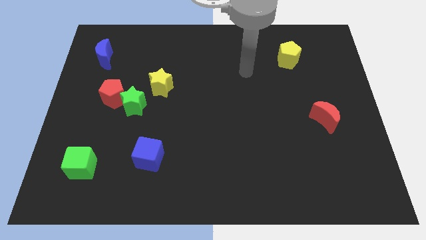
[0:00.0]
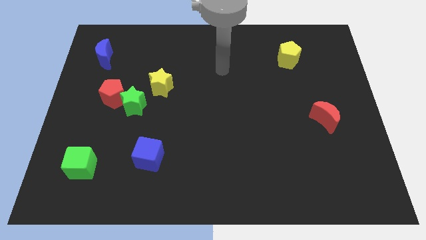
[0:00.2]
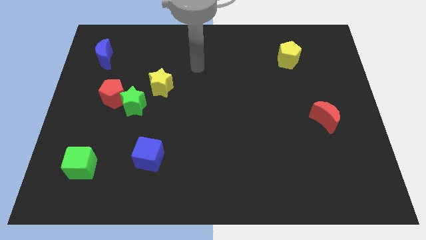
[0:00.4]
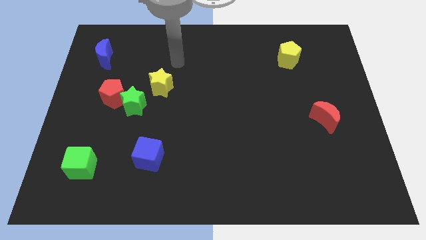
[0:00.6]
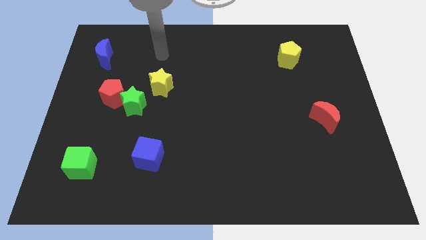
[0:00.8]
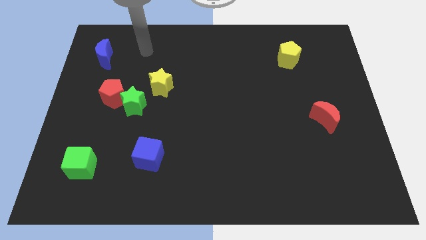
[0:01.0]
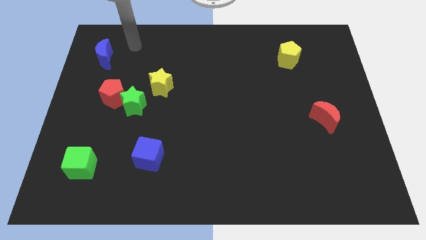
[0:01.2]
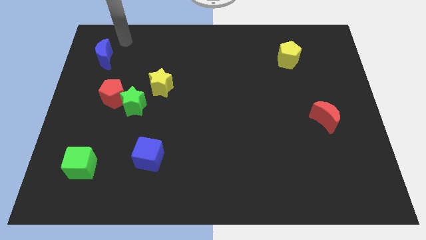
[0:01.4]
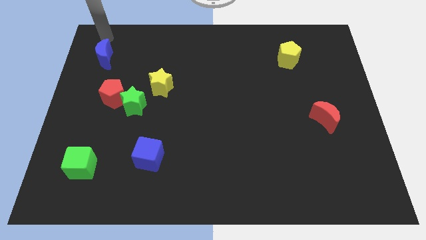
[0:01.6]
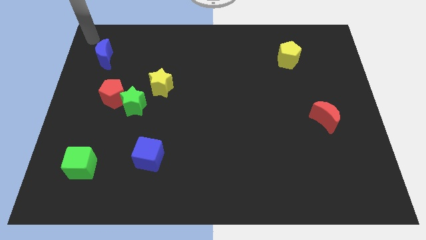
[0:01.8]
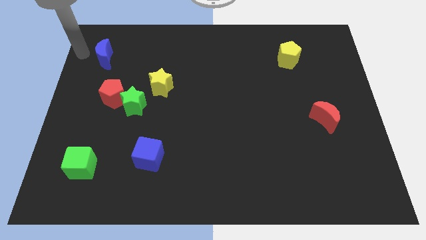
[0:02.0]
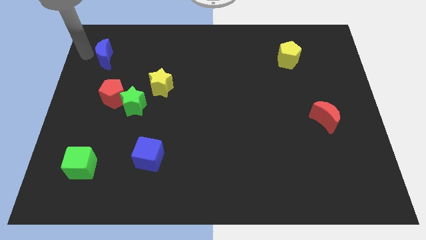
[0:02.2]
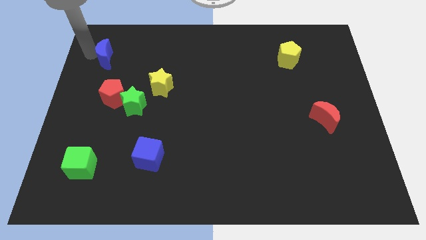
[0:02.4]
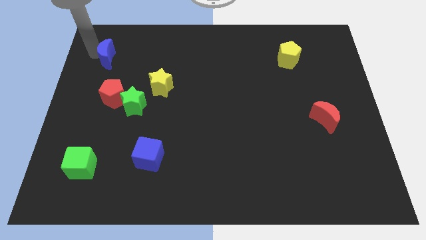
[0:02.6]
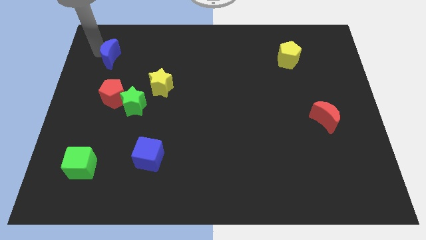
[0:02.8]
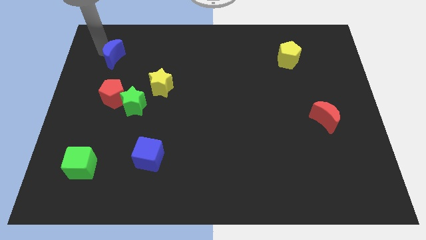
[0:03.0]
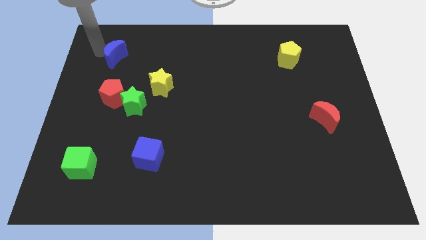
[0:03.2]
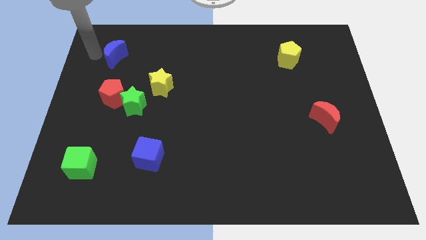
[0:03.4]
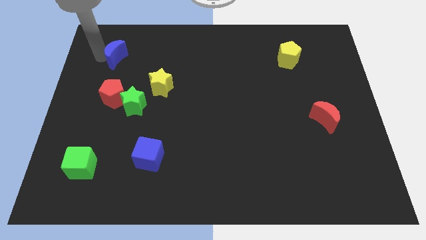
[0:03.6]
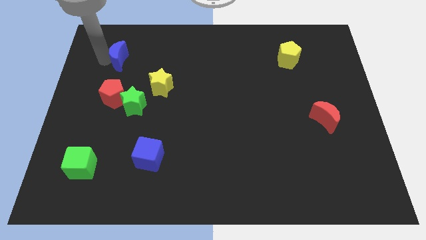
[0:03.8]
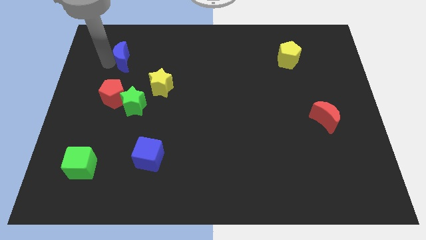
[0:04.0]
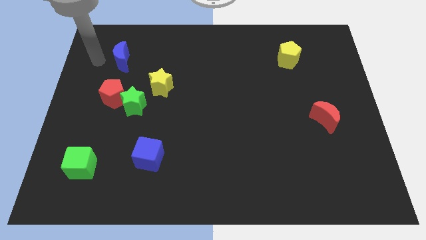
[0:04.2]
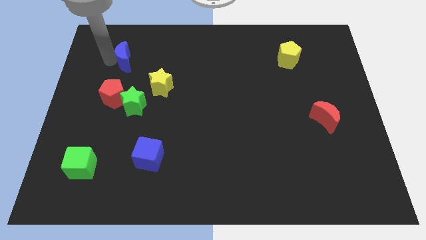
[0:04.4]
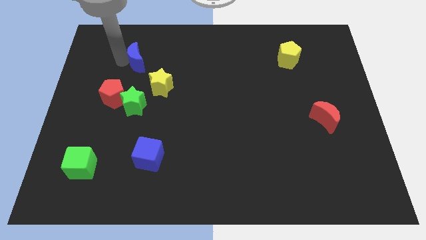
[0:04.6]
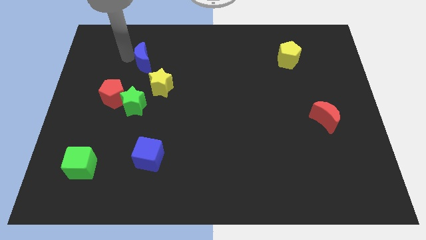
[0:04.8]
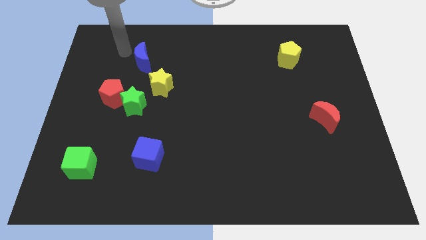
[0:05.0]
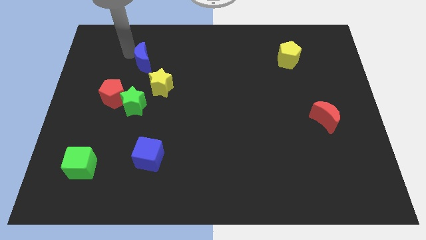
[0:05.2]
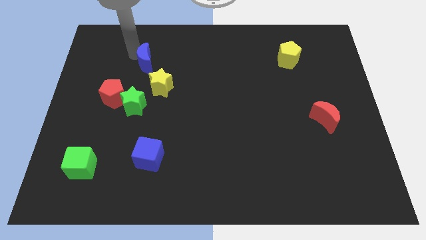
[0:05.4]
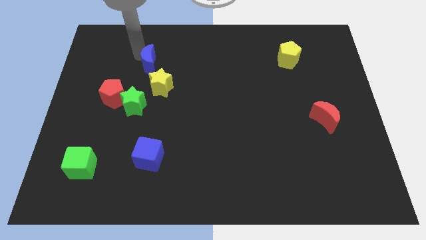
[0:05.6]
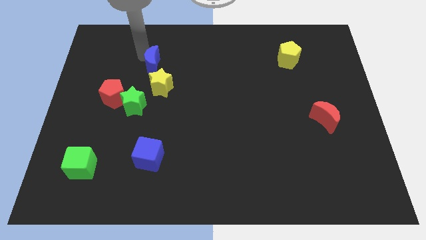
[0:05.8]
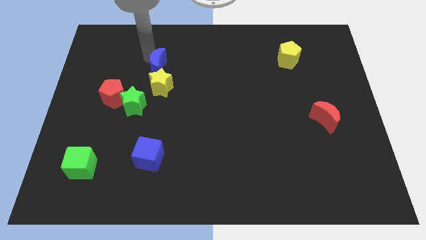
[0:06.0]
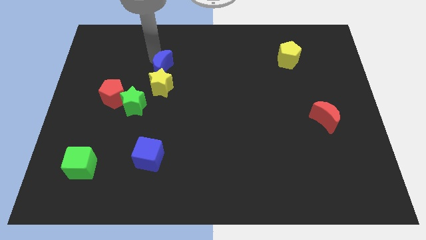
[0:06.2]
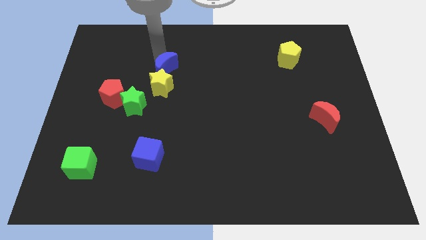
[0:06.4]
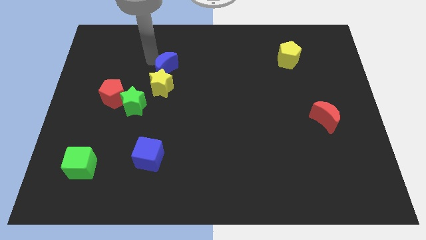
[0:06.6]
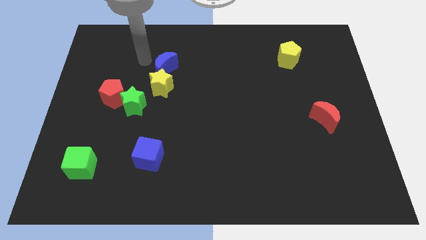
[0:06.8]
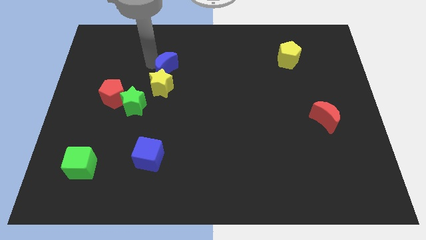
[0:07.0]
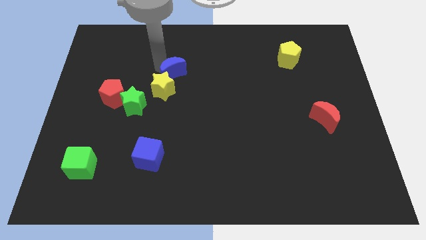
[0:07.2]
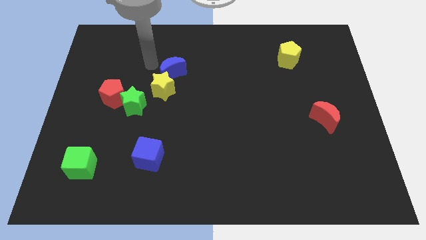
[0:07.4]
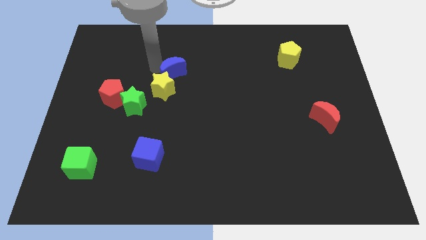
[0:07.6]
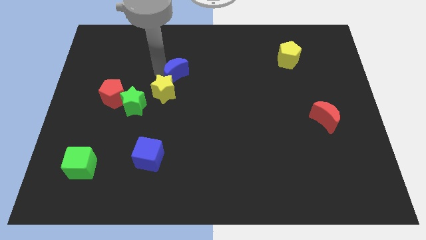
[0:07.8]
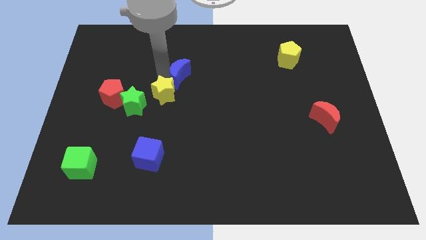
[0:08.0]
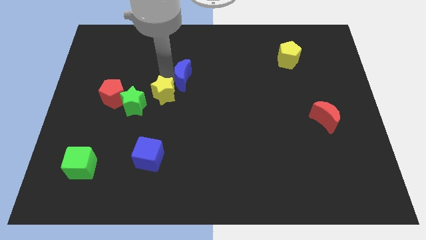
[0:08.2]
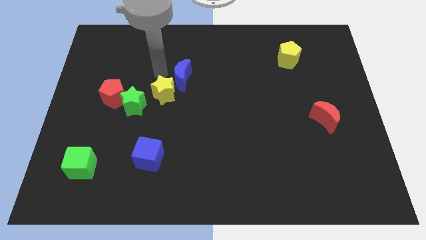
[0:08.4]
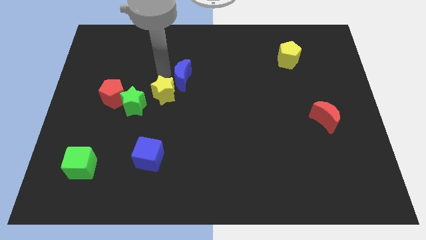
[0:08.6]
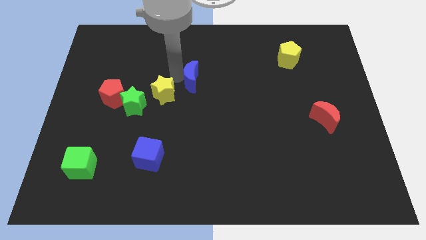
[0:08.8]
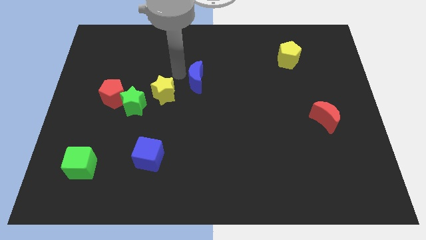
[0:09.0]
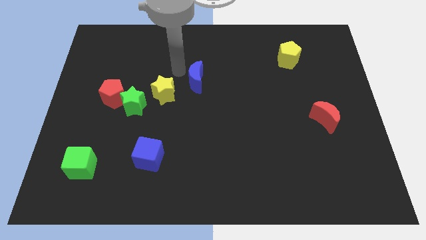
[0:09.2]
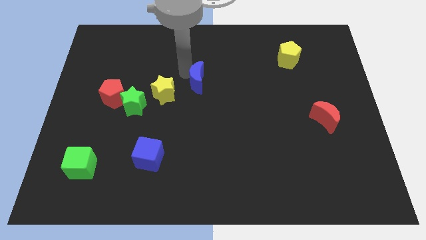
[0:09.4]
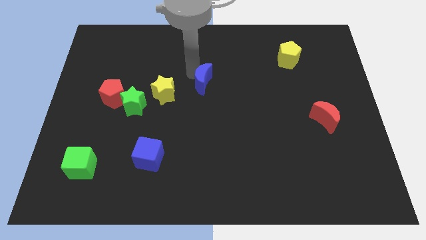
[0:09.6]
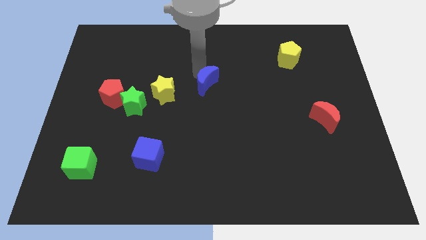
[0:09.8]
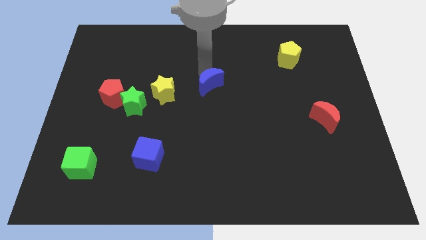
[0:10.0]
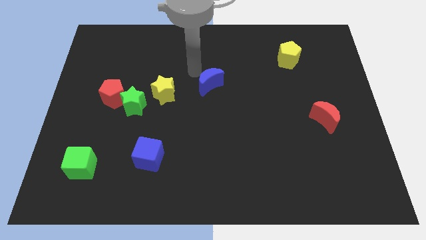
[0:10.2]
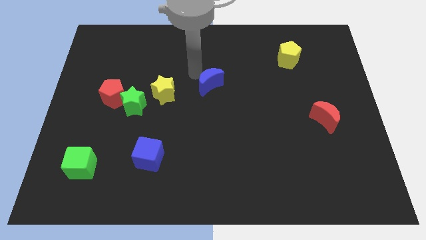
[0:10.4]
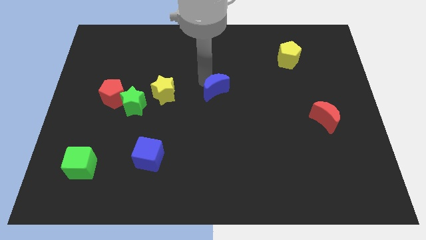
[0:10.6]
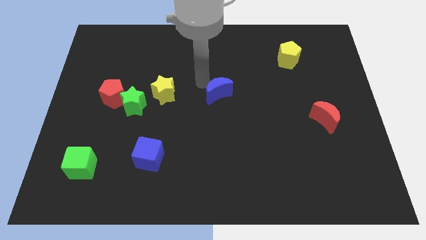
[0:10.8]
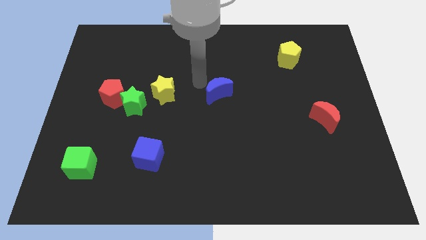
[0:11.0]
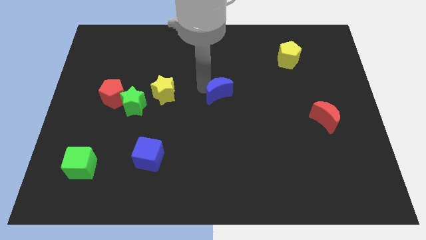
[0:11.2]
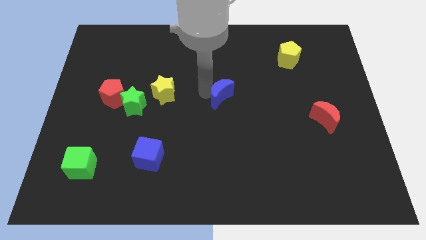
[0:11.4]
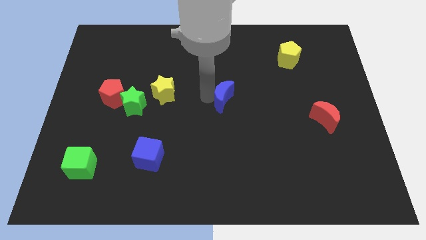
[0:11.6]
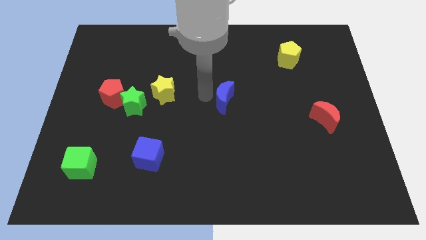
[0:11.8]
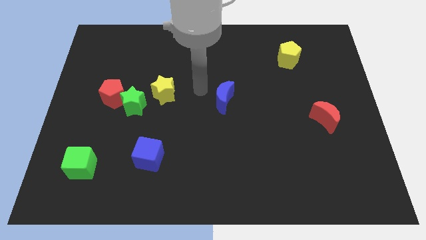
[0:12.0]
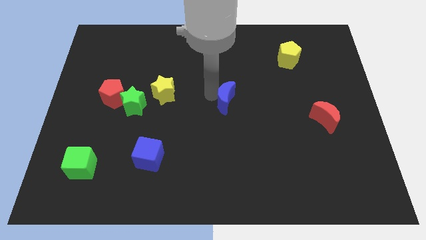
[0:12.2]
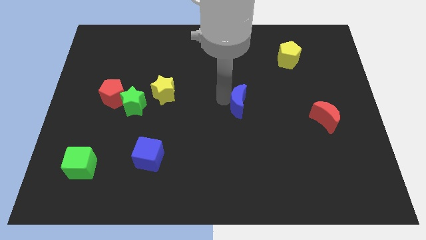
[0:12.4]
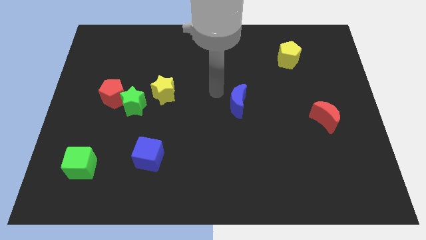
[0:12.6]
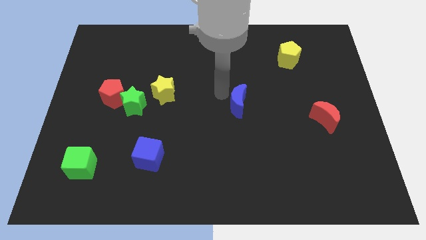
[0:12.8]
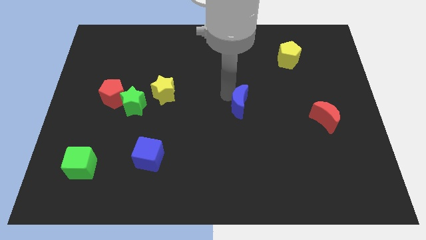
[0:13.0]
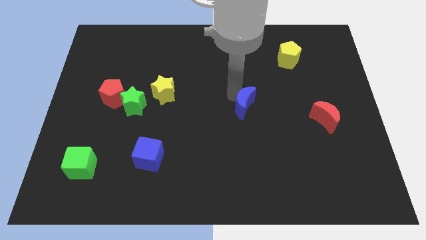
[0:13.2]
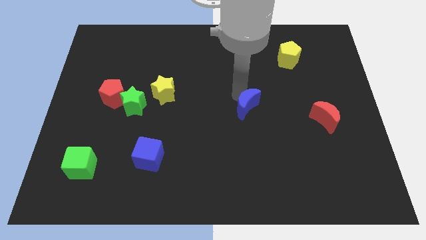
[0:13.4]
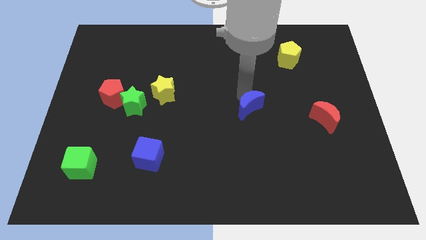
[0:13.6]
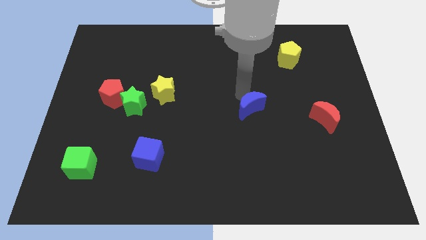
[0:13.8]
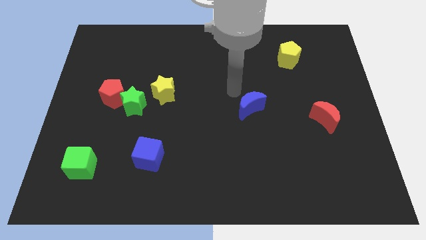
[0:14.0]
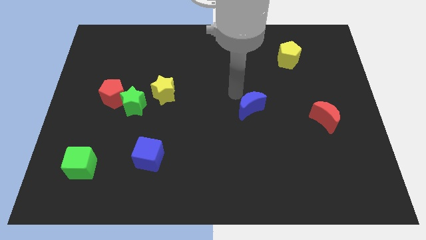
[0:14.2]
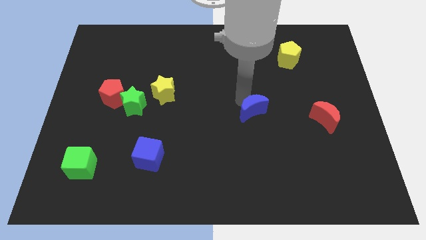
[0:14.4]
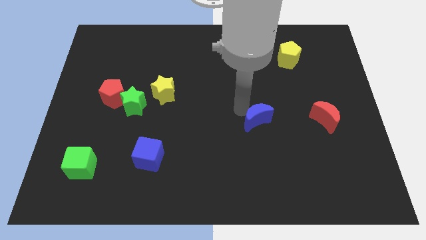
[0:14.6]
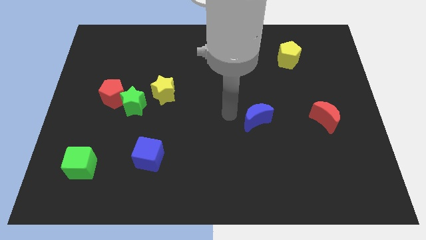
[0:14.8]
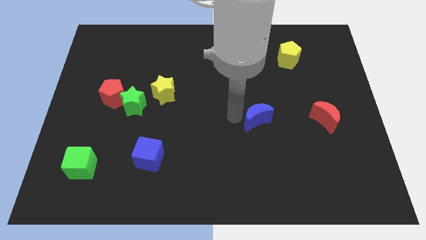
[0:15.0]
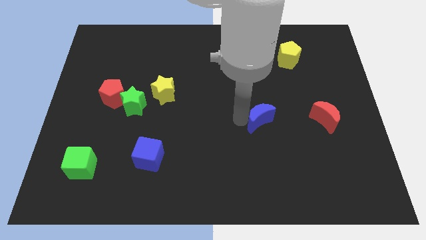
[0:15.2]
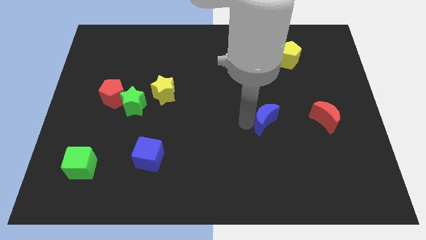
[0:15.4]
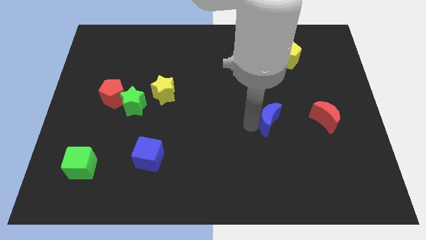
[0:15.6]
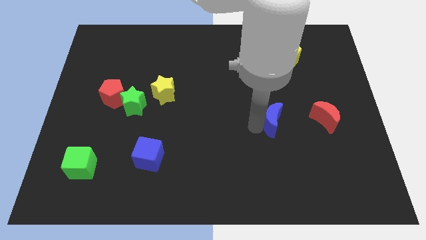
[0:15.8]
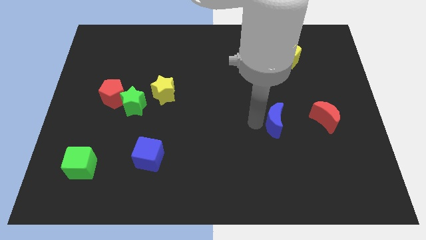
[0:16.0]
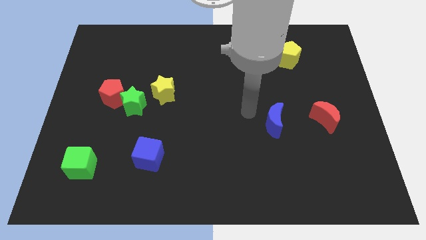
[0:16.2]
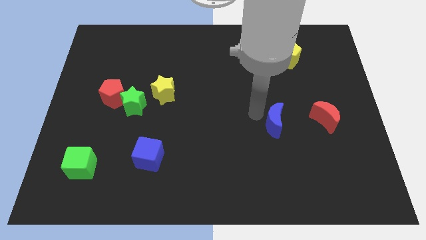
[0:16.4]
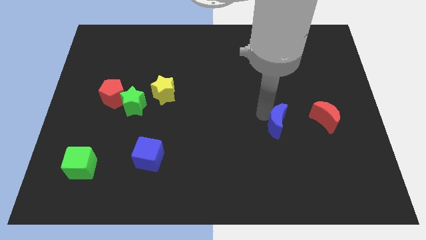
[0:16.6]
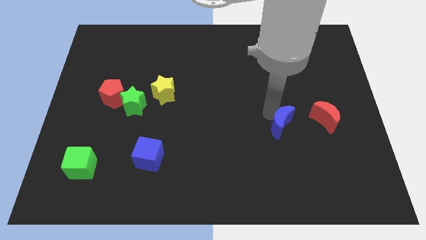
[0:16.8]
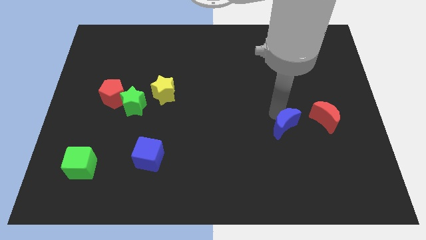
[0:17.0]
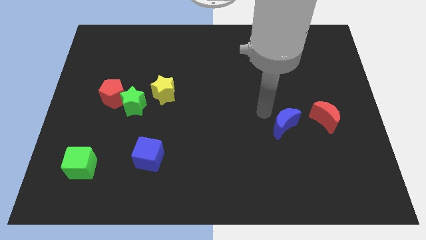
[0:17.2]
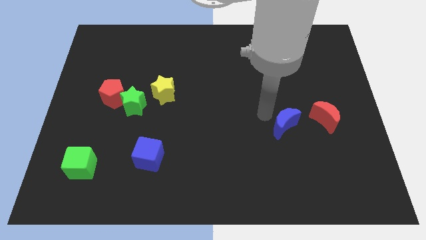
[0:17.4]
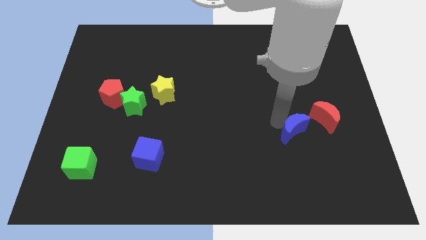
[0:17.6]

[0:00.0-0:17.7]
put the blue moon diagonally down and to the left of the red moon
